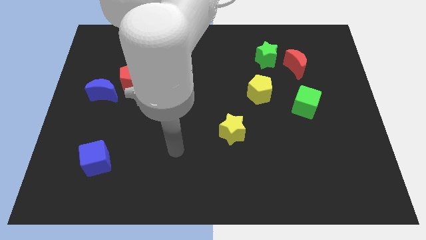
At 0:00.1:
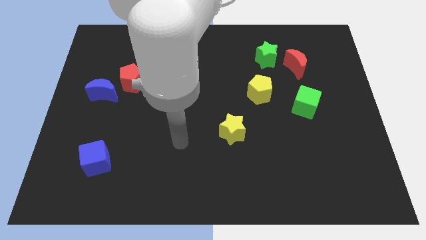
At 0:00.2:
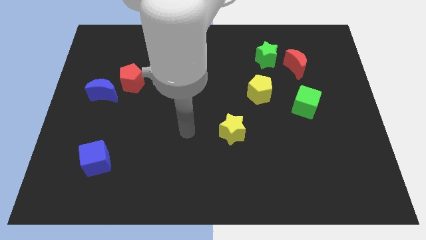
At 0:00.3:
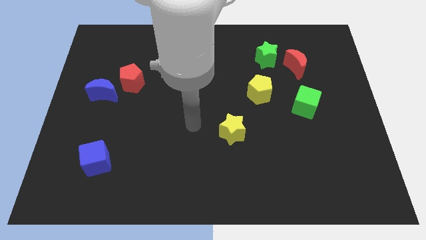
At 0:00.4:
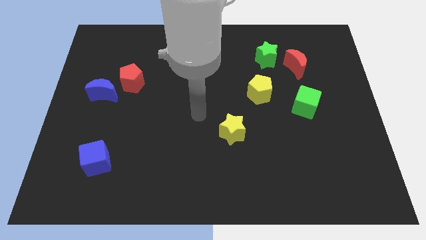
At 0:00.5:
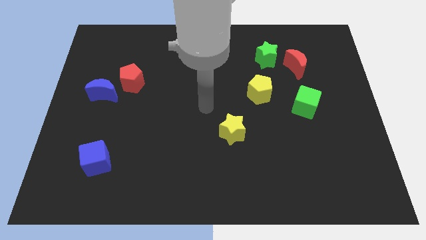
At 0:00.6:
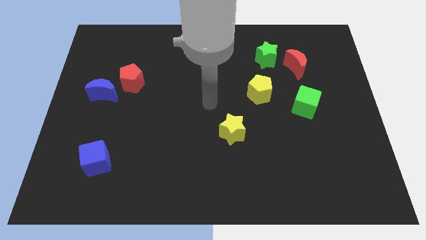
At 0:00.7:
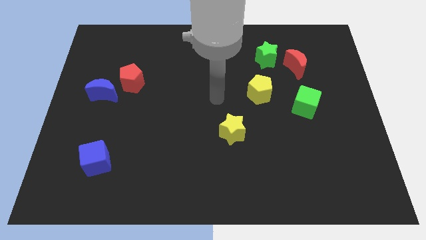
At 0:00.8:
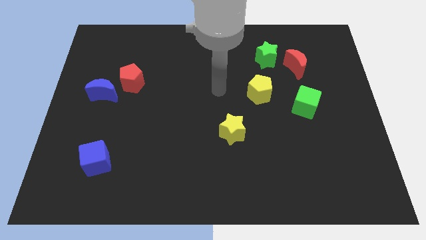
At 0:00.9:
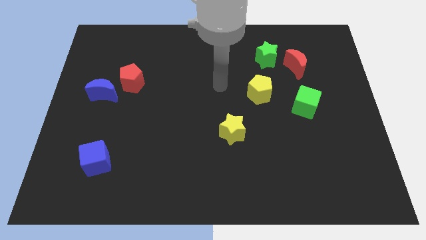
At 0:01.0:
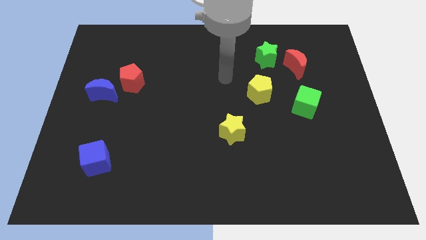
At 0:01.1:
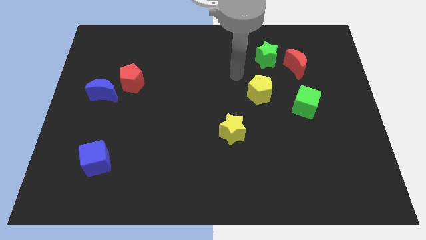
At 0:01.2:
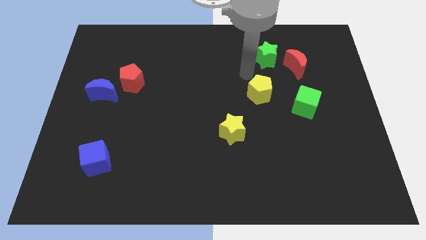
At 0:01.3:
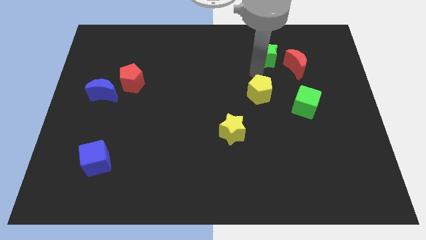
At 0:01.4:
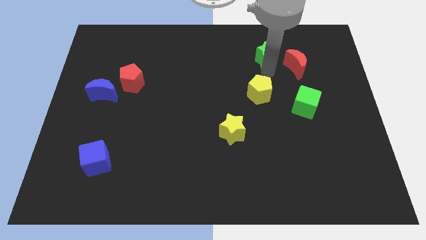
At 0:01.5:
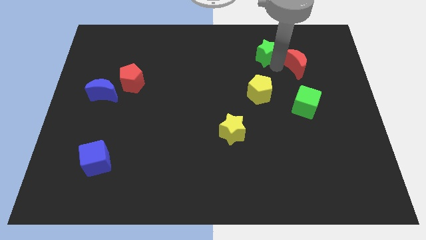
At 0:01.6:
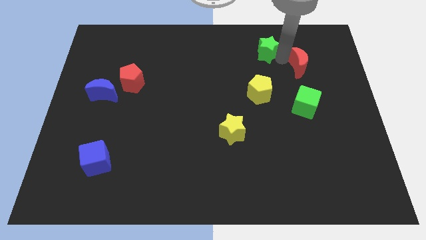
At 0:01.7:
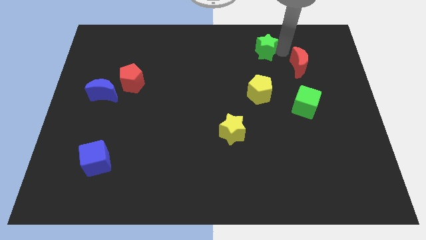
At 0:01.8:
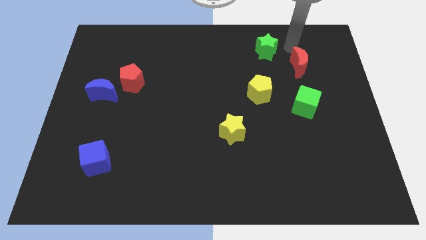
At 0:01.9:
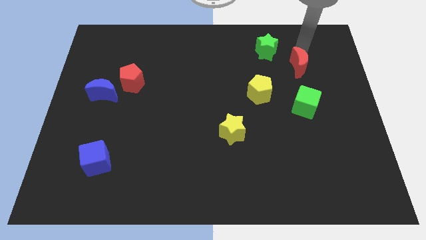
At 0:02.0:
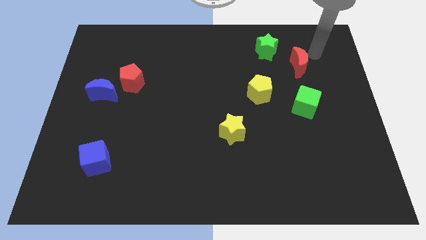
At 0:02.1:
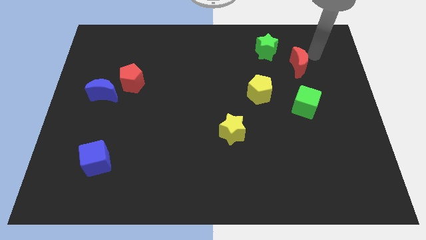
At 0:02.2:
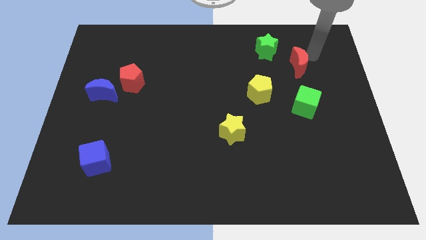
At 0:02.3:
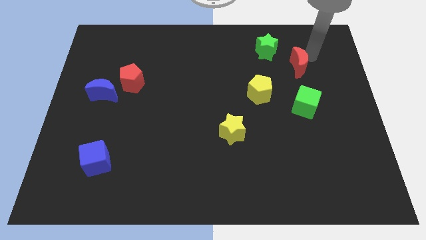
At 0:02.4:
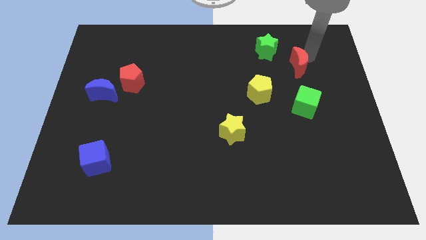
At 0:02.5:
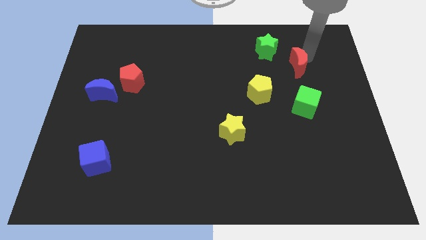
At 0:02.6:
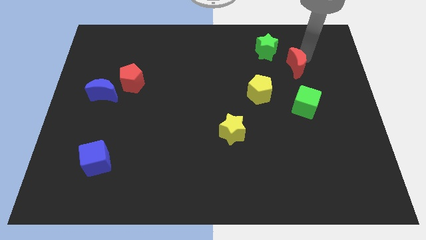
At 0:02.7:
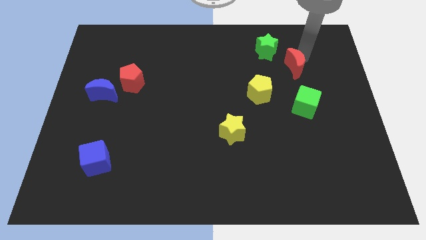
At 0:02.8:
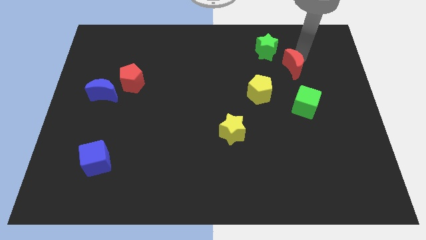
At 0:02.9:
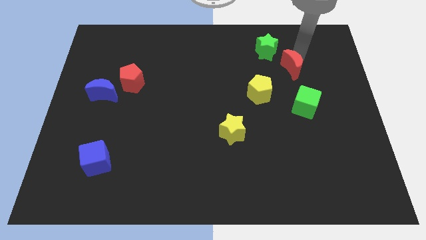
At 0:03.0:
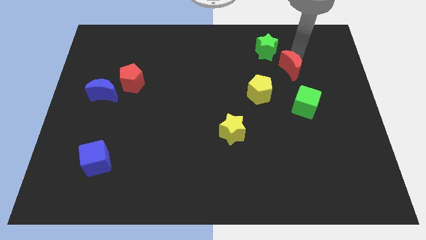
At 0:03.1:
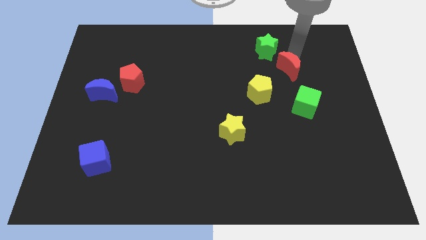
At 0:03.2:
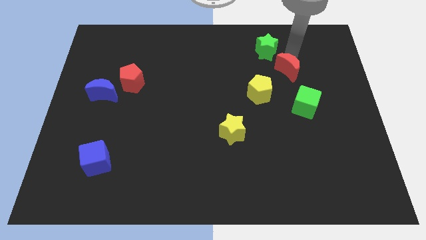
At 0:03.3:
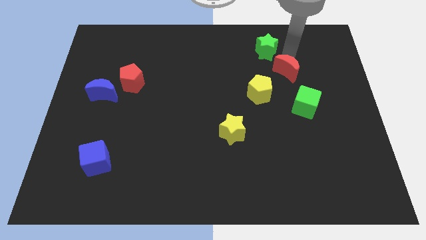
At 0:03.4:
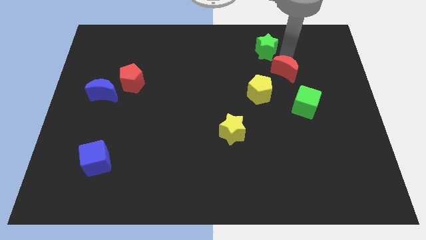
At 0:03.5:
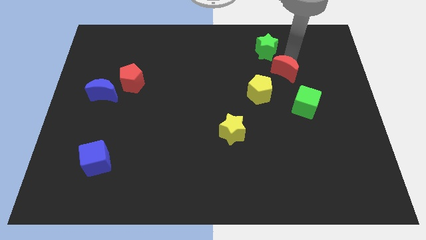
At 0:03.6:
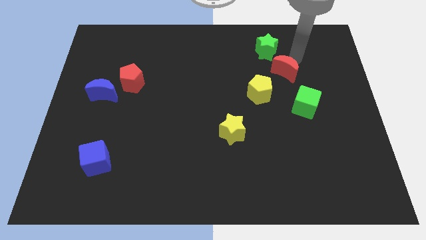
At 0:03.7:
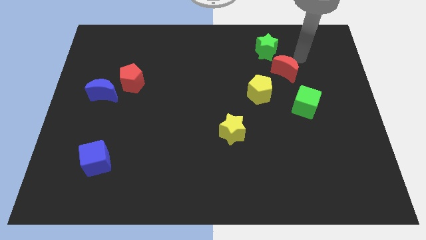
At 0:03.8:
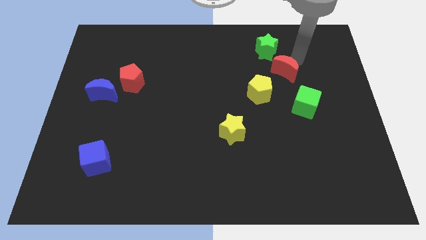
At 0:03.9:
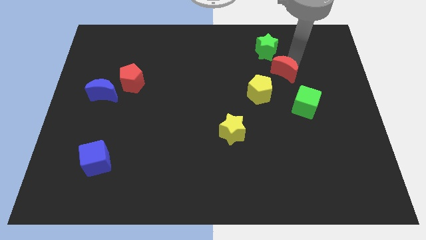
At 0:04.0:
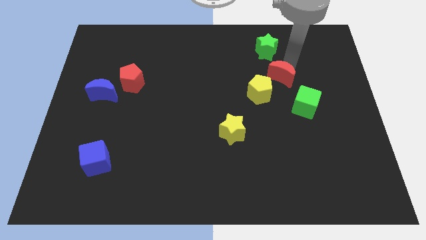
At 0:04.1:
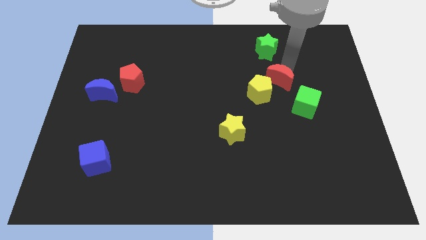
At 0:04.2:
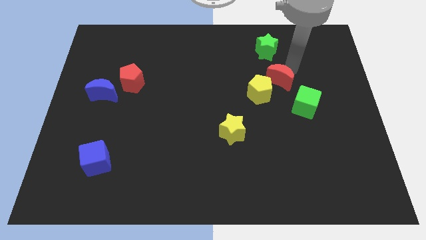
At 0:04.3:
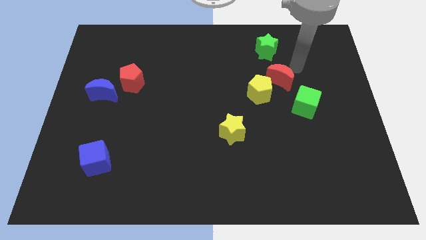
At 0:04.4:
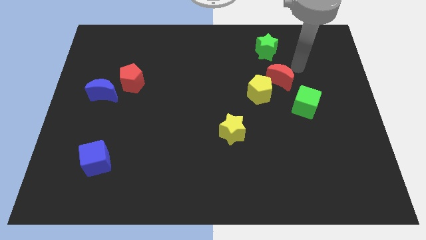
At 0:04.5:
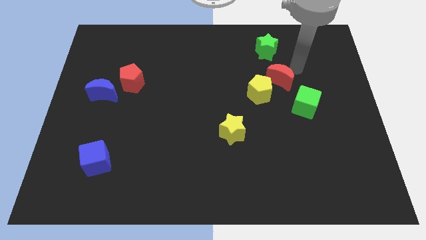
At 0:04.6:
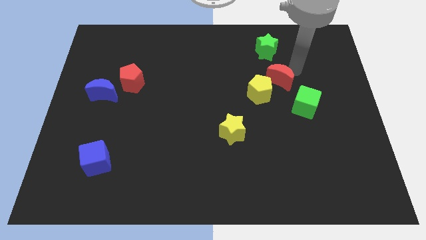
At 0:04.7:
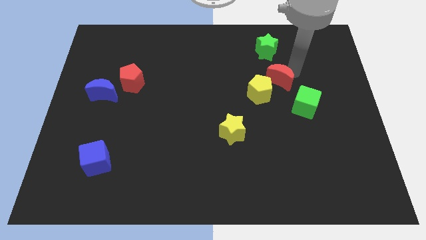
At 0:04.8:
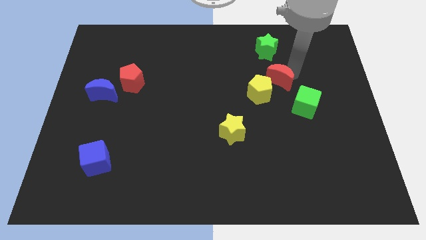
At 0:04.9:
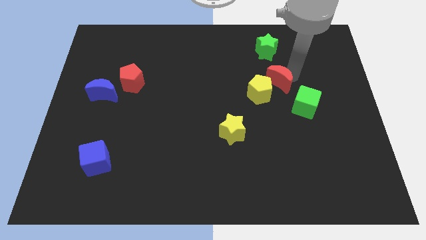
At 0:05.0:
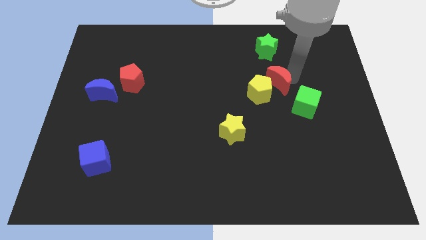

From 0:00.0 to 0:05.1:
slide the red moon next to the yellow pentagon

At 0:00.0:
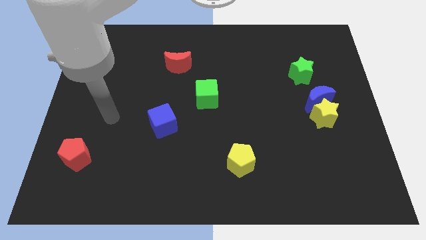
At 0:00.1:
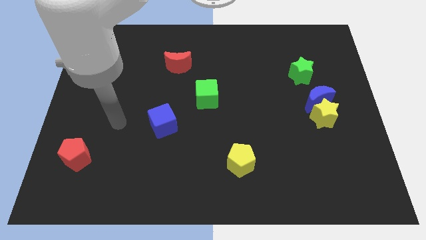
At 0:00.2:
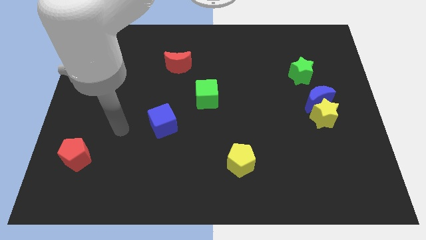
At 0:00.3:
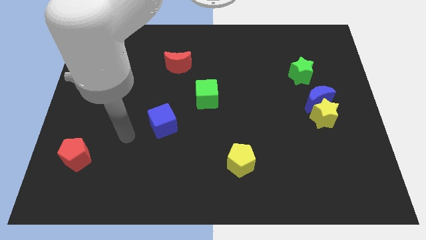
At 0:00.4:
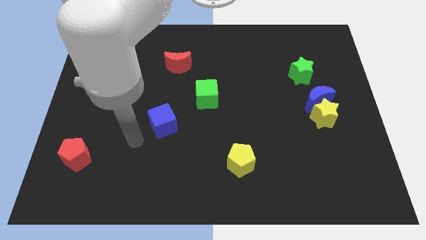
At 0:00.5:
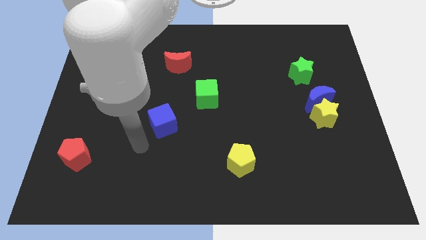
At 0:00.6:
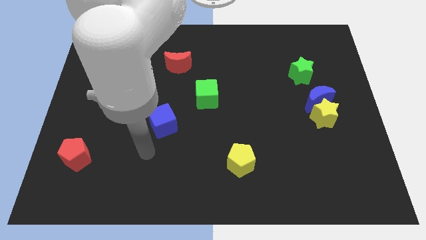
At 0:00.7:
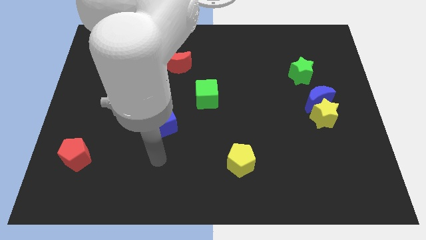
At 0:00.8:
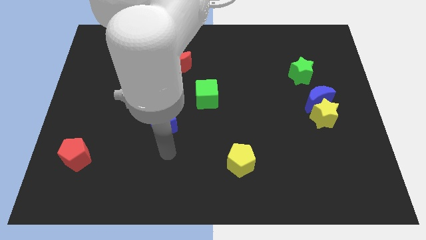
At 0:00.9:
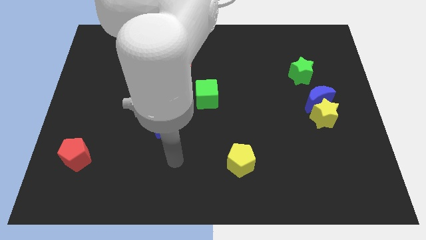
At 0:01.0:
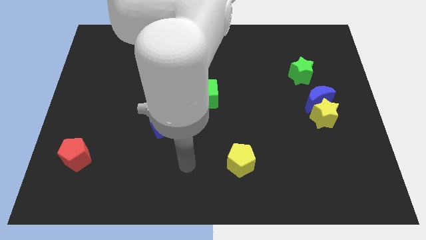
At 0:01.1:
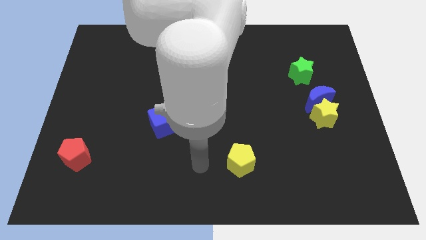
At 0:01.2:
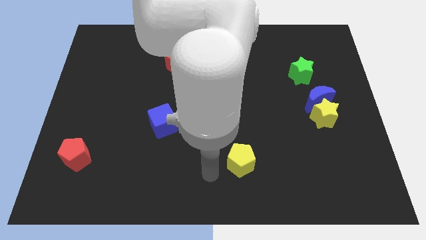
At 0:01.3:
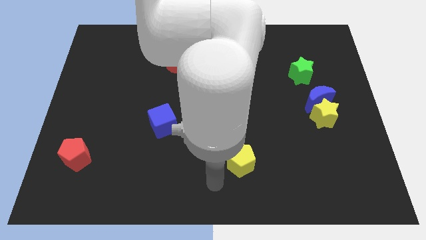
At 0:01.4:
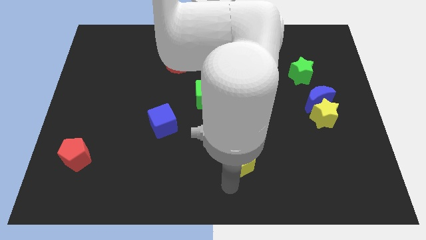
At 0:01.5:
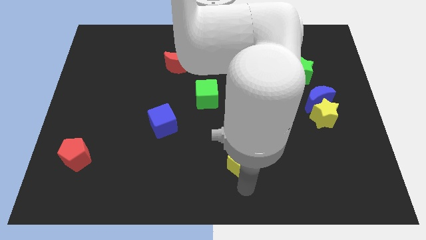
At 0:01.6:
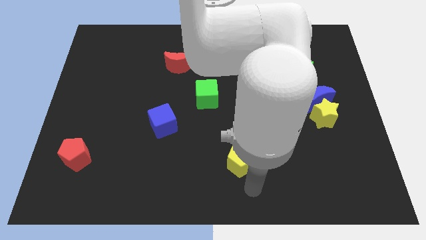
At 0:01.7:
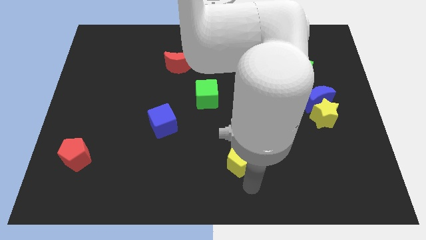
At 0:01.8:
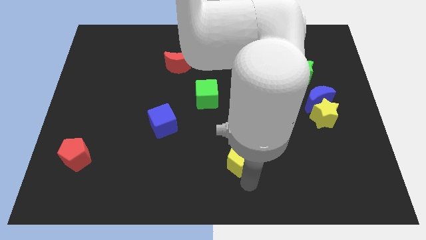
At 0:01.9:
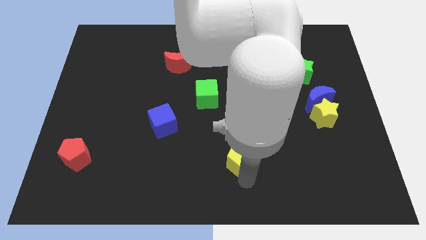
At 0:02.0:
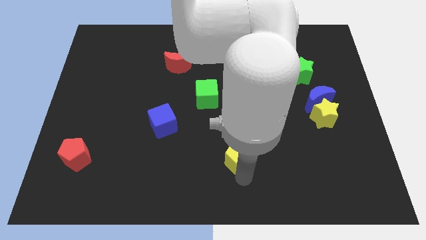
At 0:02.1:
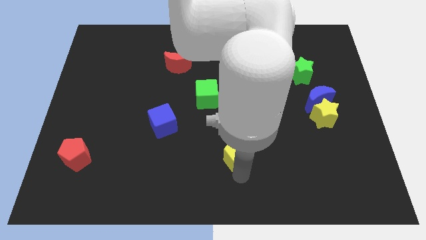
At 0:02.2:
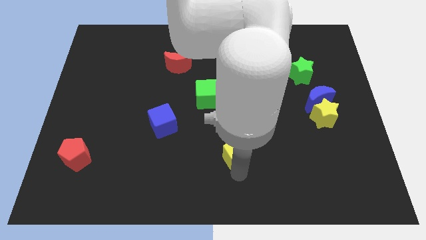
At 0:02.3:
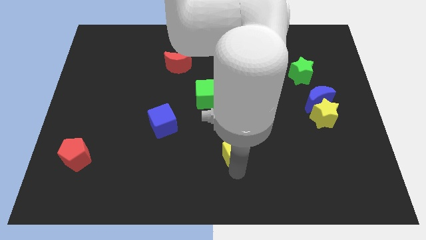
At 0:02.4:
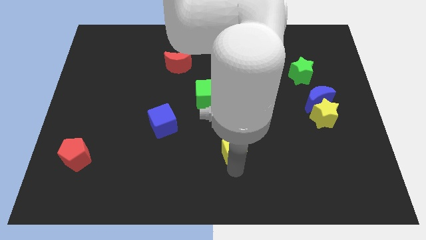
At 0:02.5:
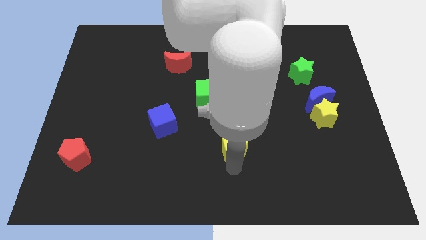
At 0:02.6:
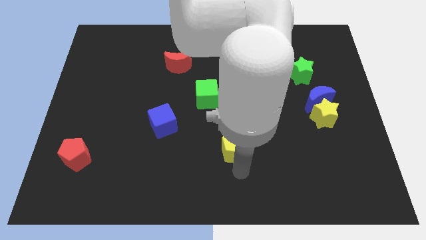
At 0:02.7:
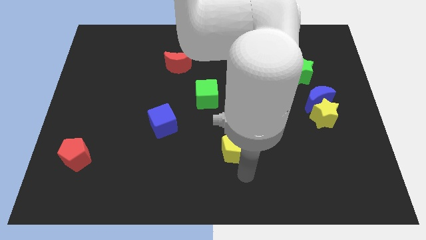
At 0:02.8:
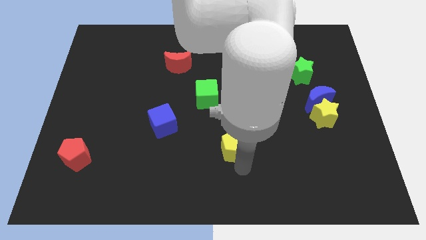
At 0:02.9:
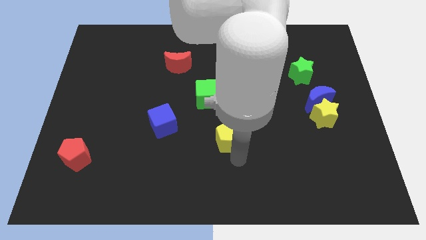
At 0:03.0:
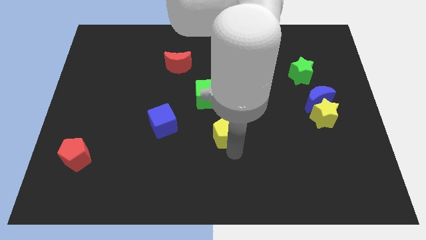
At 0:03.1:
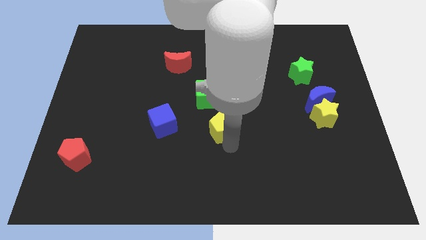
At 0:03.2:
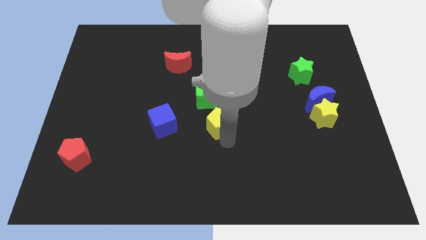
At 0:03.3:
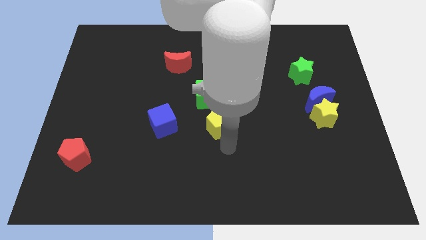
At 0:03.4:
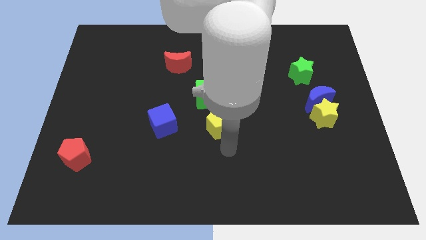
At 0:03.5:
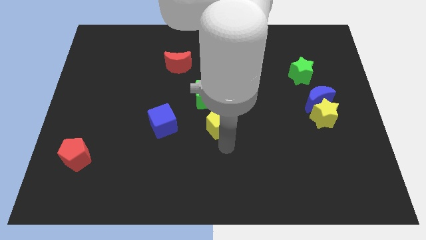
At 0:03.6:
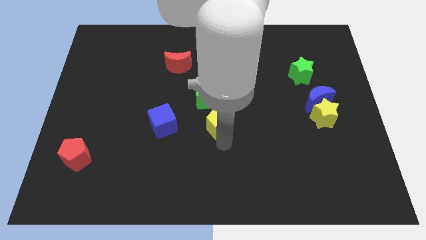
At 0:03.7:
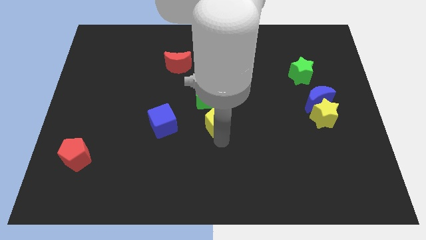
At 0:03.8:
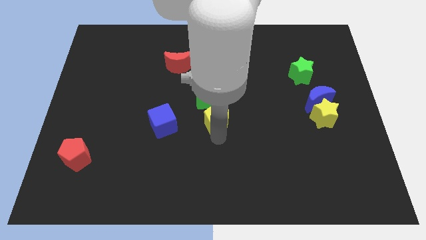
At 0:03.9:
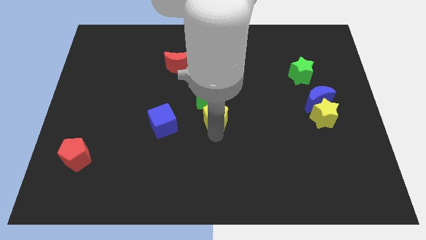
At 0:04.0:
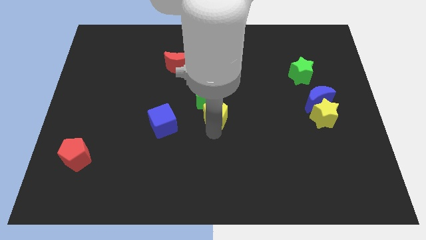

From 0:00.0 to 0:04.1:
push the yellow pentagon towards the green cube
